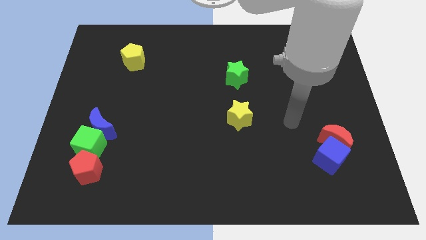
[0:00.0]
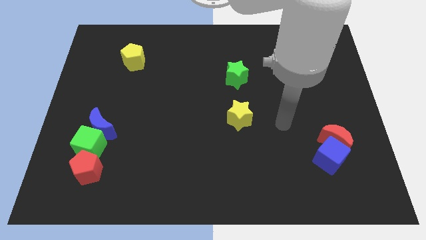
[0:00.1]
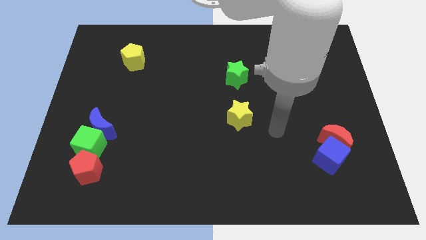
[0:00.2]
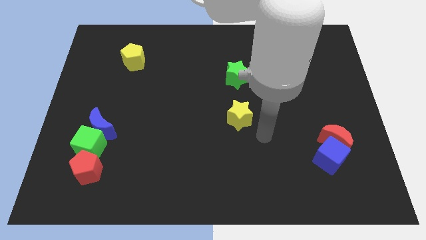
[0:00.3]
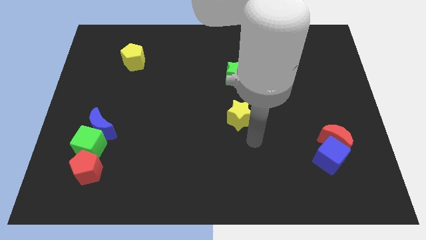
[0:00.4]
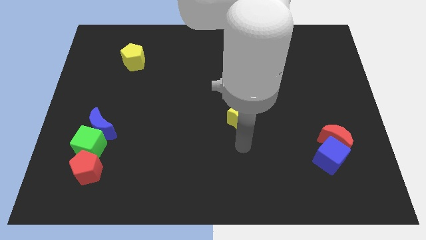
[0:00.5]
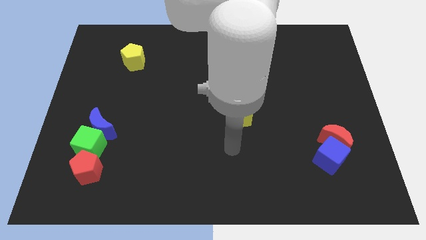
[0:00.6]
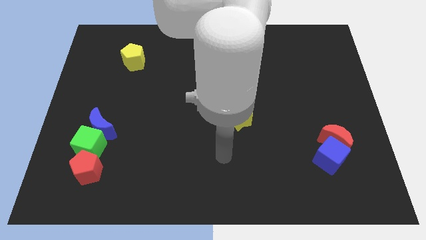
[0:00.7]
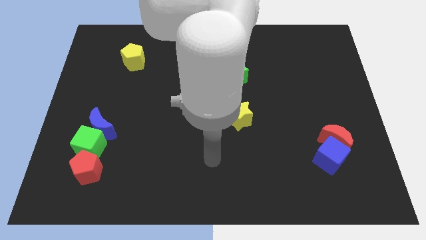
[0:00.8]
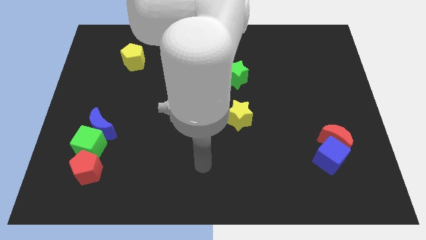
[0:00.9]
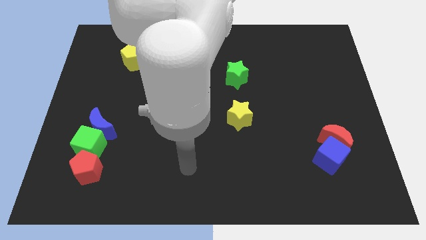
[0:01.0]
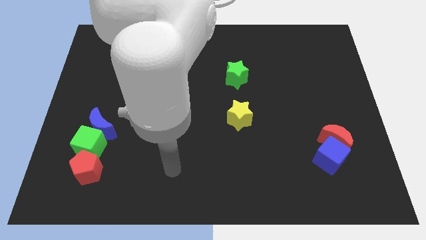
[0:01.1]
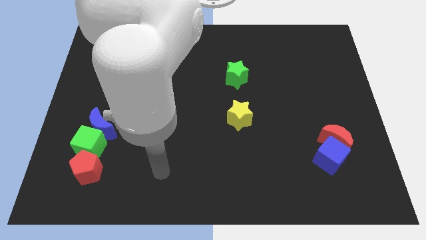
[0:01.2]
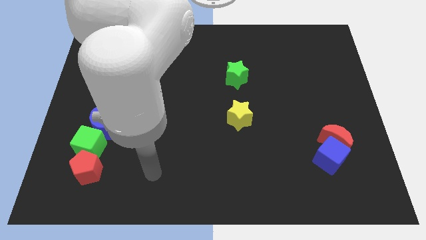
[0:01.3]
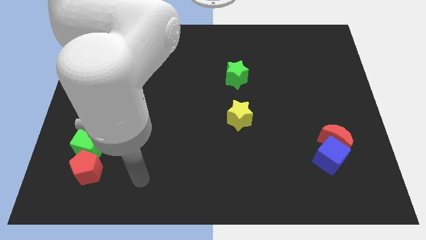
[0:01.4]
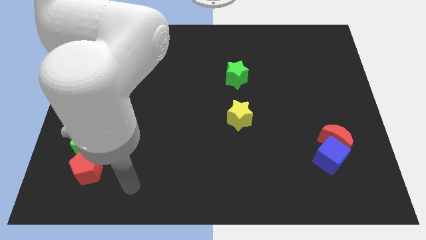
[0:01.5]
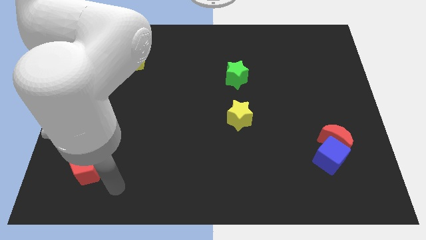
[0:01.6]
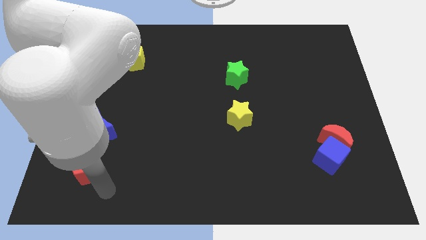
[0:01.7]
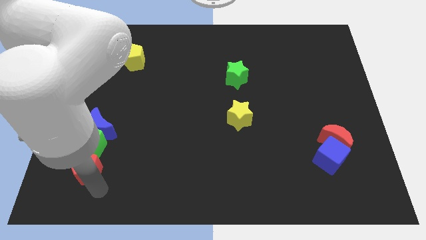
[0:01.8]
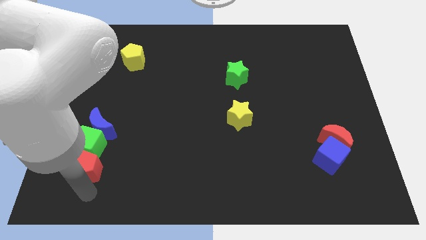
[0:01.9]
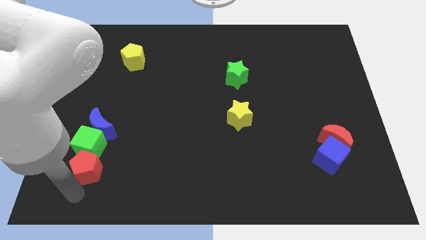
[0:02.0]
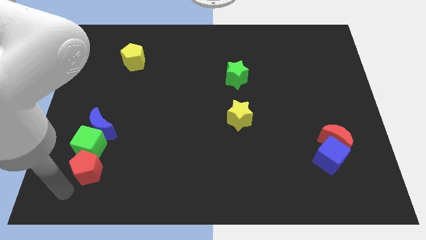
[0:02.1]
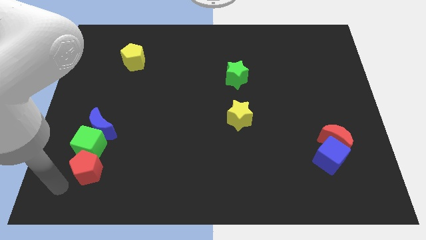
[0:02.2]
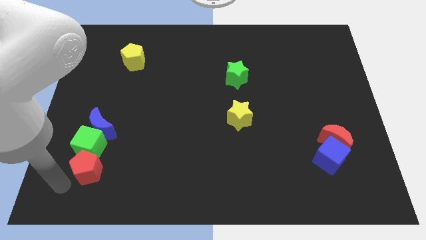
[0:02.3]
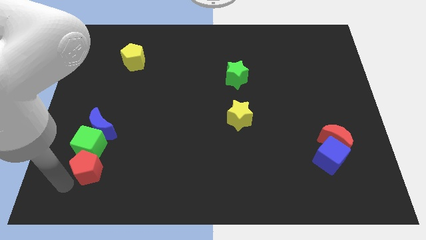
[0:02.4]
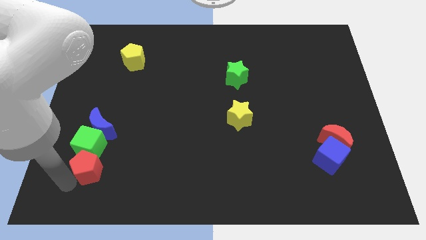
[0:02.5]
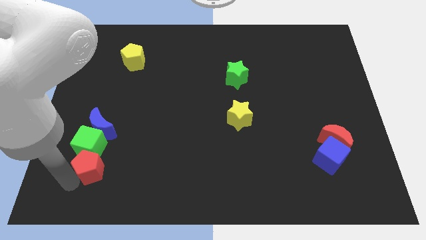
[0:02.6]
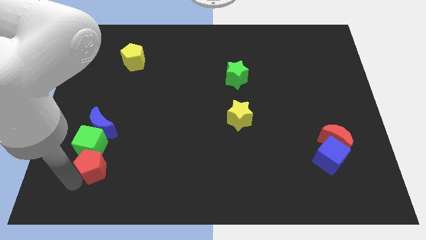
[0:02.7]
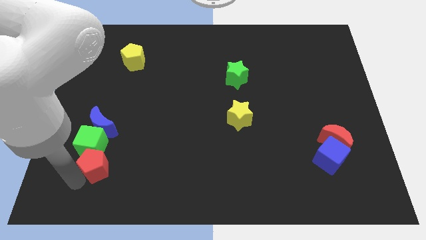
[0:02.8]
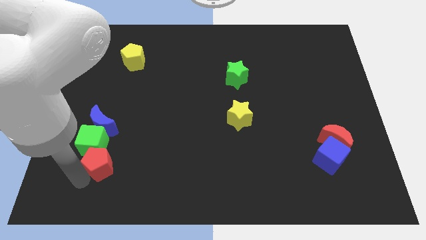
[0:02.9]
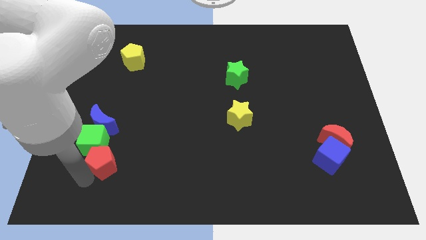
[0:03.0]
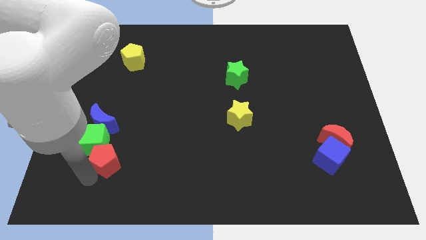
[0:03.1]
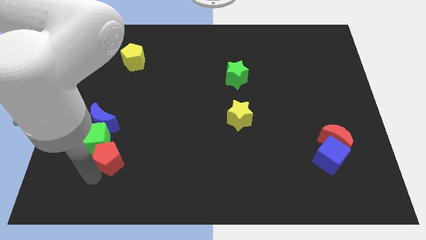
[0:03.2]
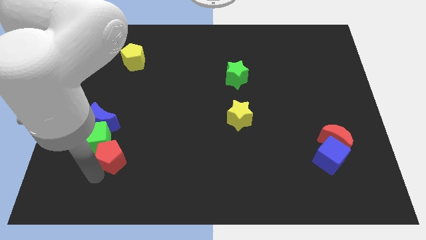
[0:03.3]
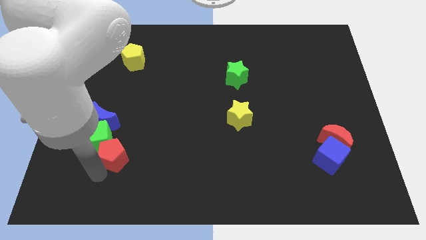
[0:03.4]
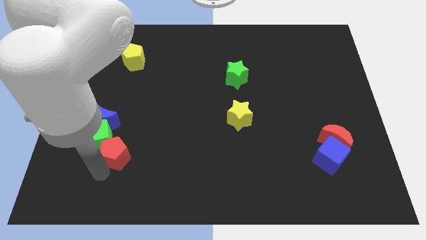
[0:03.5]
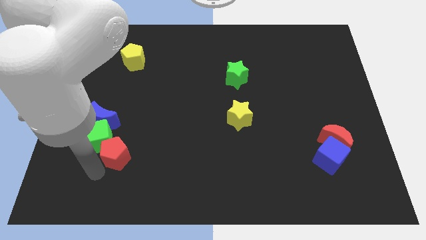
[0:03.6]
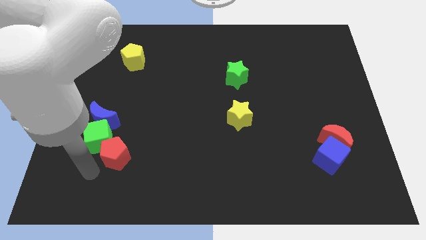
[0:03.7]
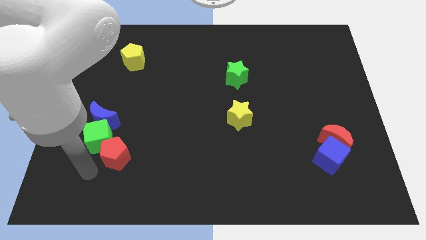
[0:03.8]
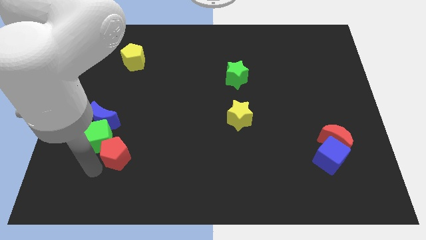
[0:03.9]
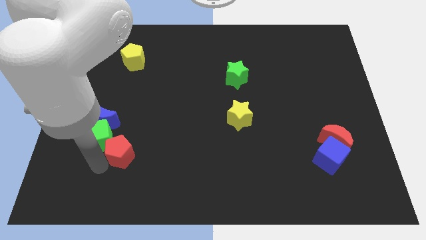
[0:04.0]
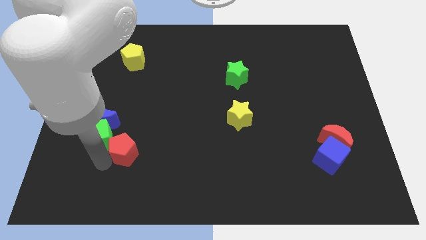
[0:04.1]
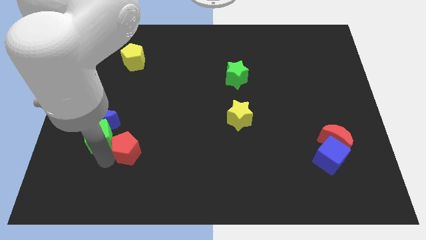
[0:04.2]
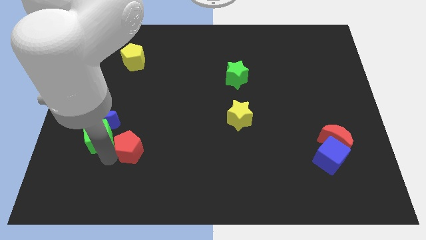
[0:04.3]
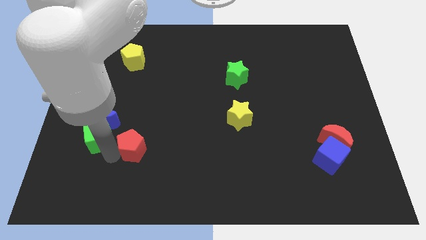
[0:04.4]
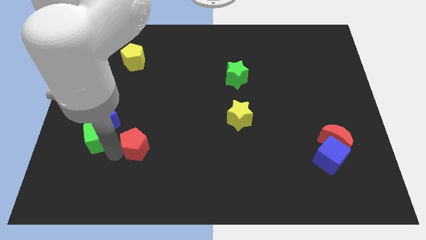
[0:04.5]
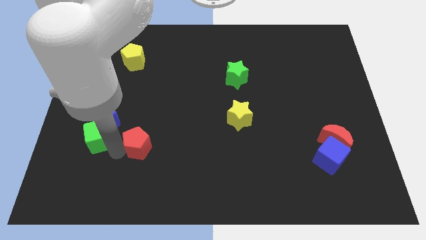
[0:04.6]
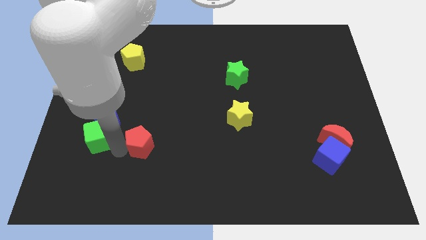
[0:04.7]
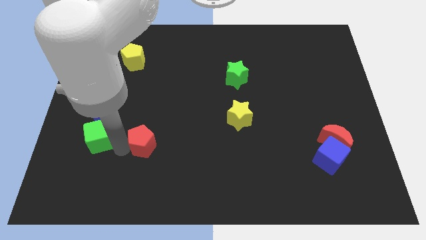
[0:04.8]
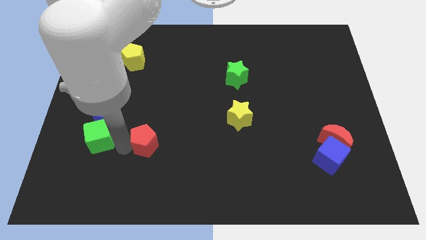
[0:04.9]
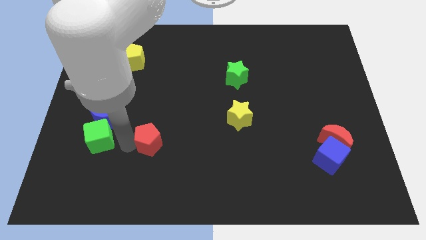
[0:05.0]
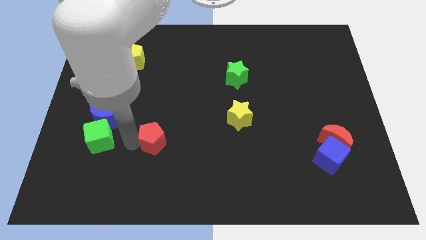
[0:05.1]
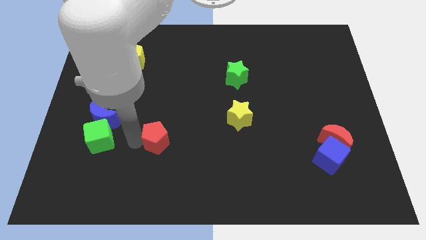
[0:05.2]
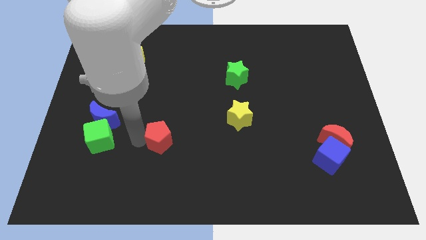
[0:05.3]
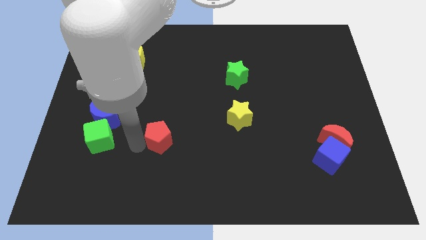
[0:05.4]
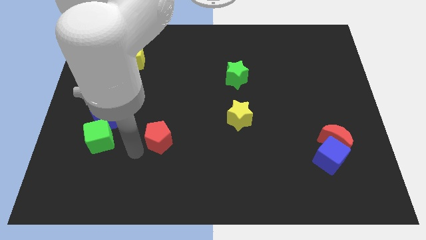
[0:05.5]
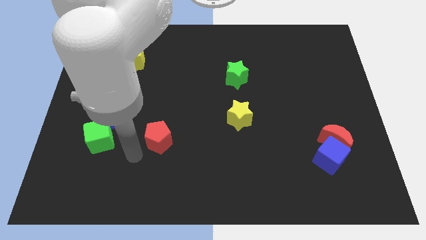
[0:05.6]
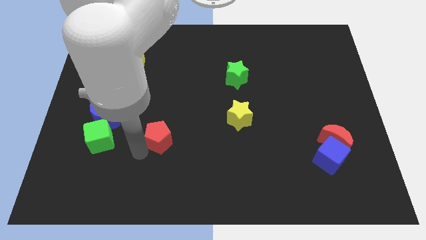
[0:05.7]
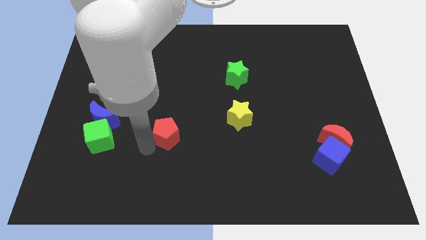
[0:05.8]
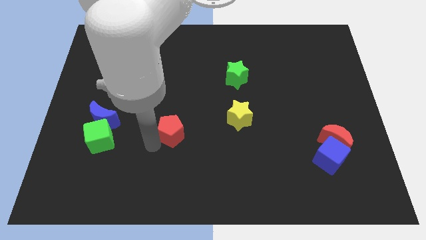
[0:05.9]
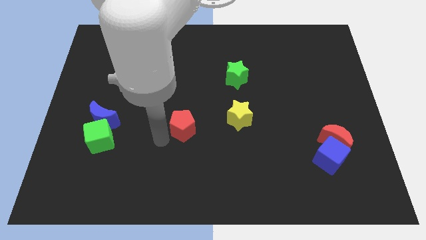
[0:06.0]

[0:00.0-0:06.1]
move the red pentagon to the middle

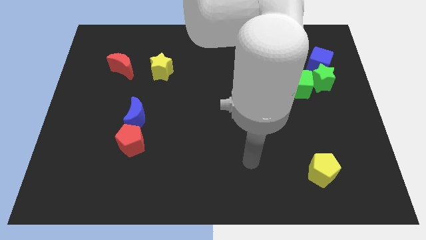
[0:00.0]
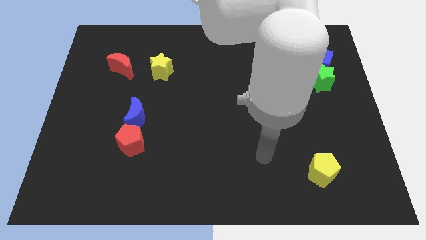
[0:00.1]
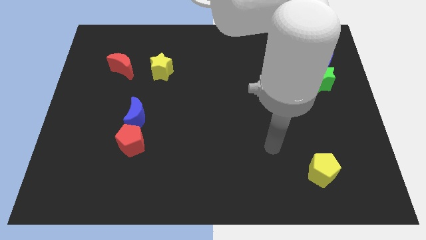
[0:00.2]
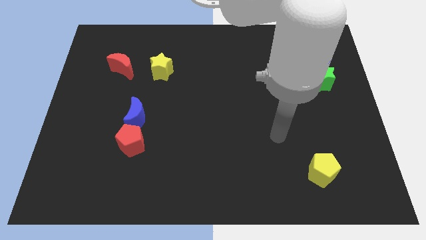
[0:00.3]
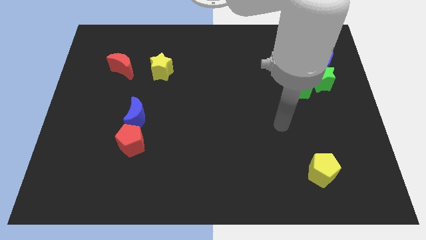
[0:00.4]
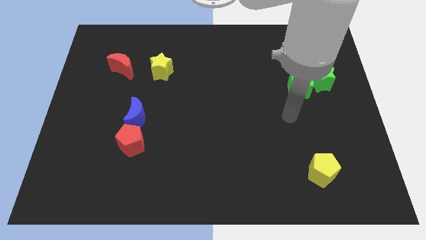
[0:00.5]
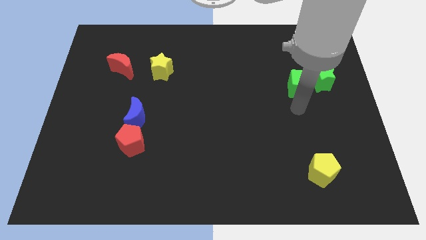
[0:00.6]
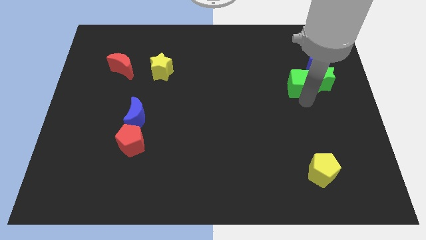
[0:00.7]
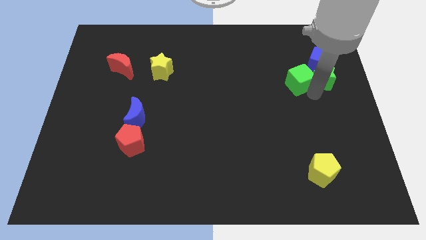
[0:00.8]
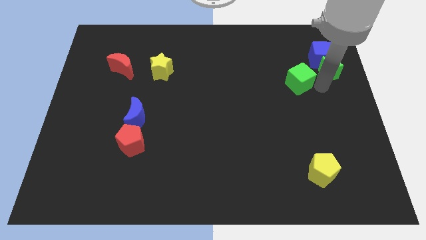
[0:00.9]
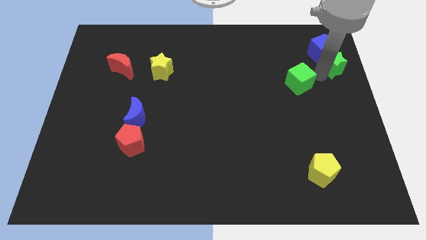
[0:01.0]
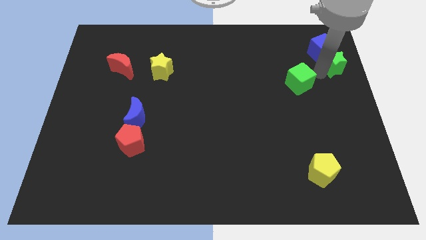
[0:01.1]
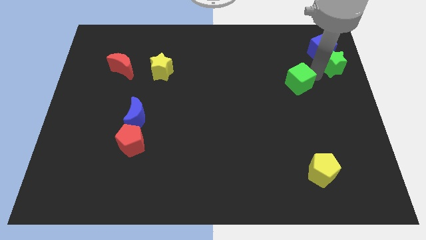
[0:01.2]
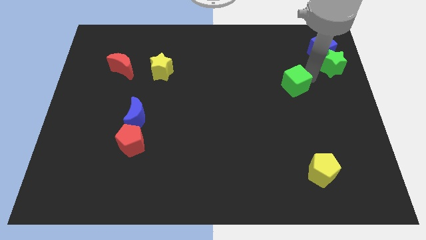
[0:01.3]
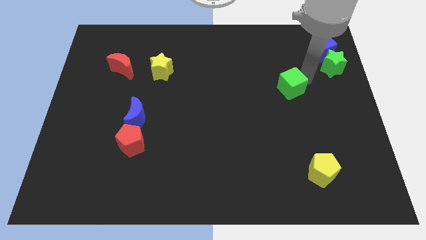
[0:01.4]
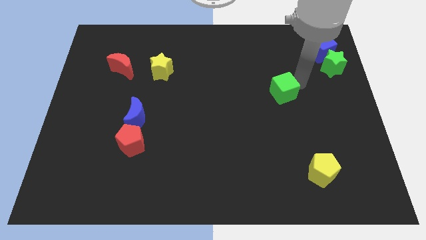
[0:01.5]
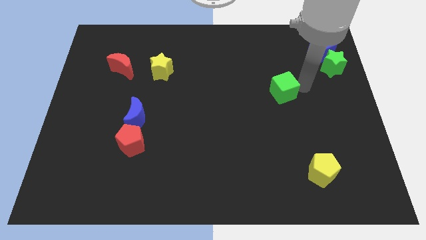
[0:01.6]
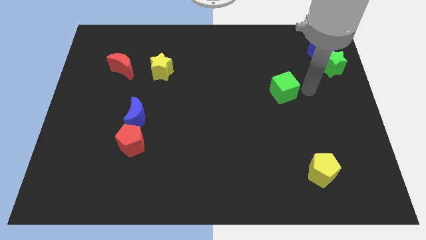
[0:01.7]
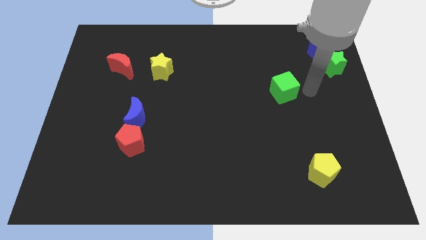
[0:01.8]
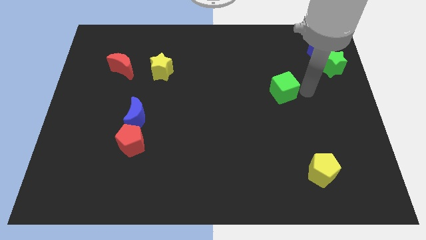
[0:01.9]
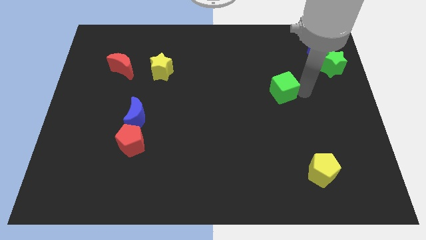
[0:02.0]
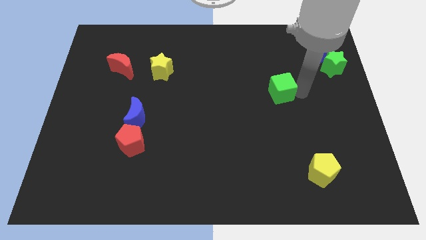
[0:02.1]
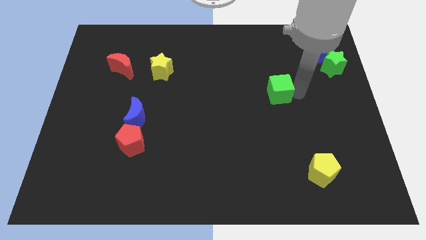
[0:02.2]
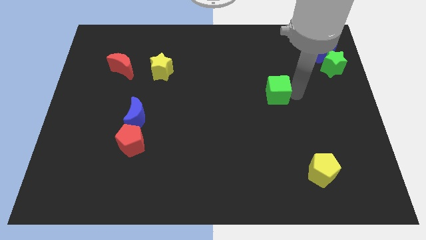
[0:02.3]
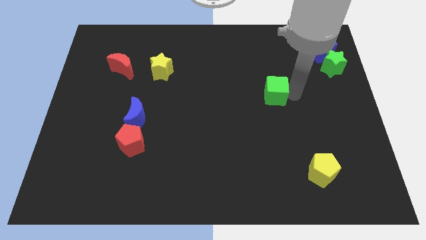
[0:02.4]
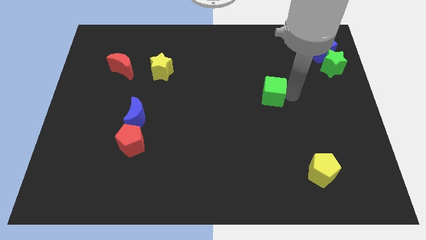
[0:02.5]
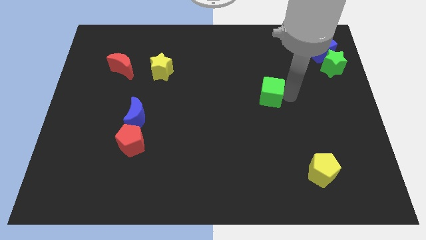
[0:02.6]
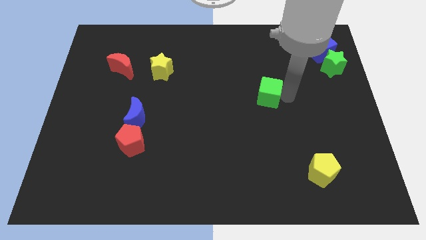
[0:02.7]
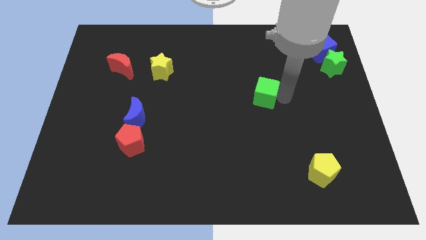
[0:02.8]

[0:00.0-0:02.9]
move the green cube to the middle
